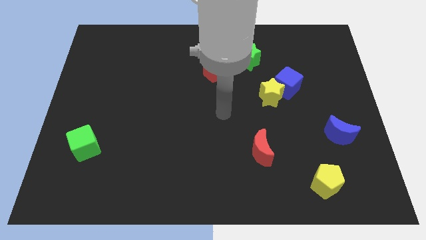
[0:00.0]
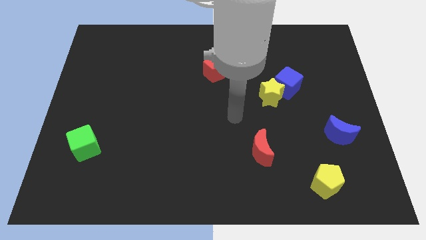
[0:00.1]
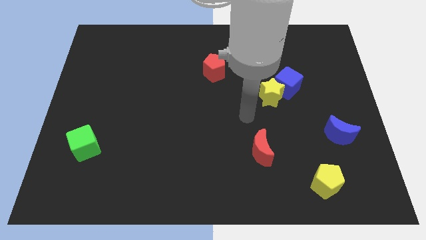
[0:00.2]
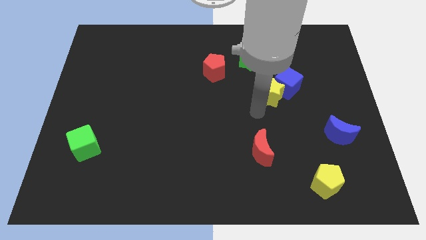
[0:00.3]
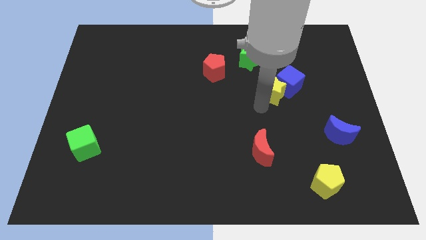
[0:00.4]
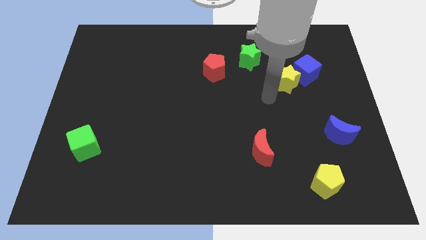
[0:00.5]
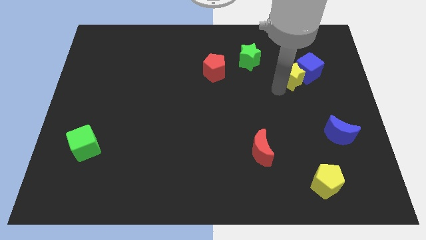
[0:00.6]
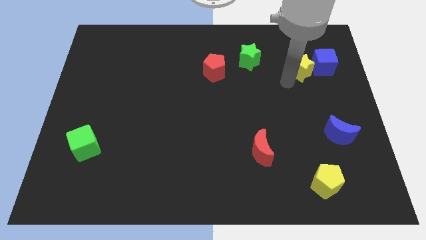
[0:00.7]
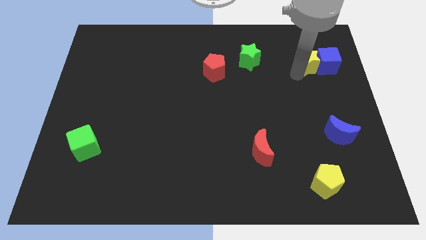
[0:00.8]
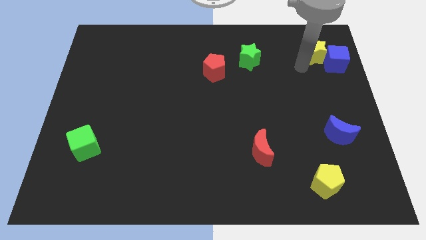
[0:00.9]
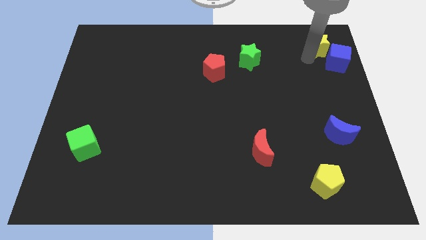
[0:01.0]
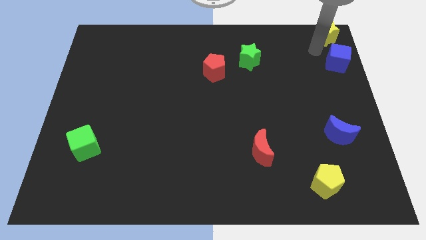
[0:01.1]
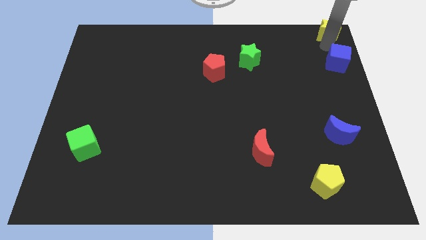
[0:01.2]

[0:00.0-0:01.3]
move the blue cube away from the yellow star

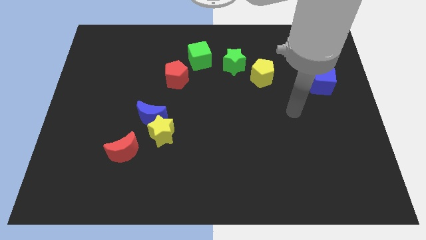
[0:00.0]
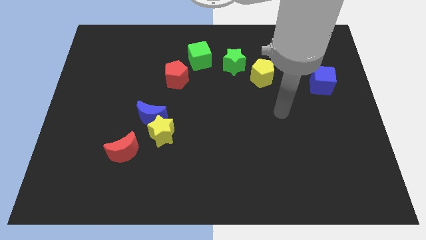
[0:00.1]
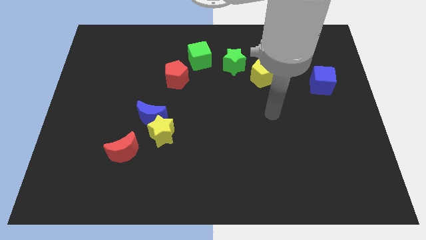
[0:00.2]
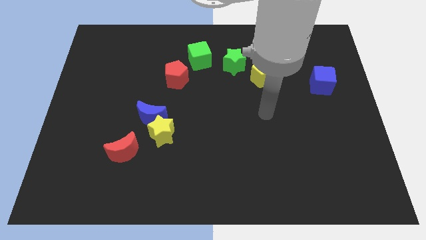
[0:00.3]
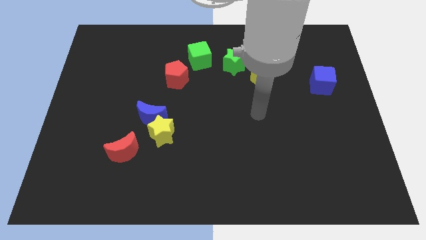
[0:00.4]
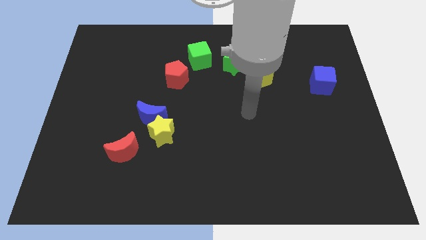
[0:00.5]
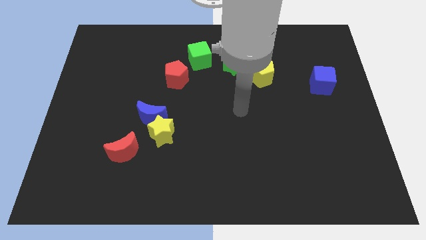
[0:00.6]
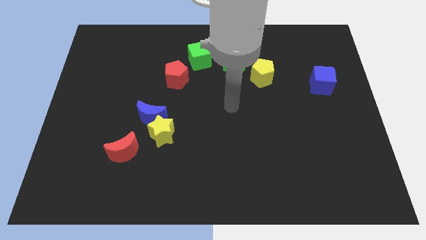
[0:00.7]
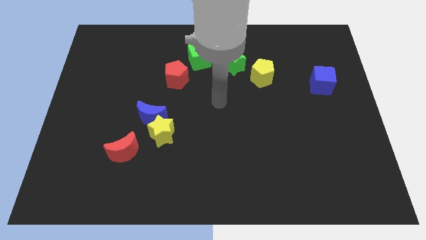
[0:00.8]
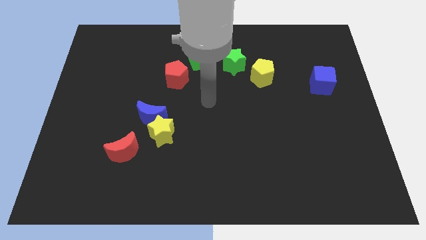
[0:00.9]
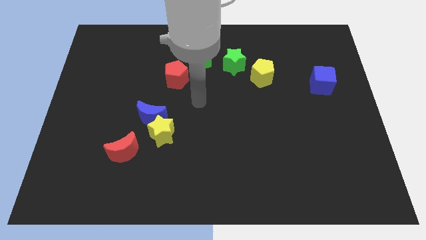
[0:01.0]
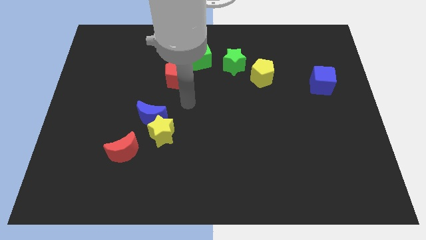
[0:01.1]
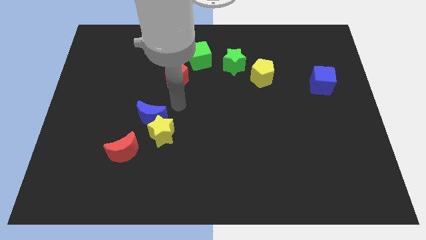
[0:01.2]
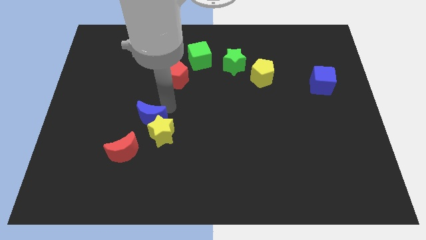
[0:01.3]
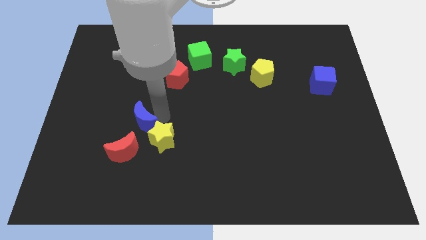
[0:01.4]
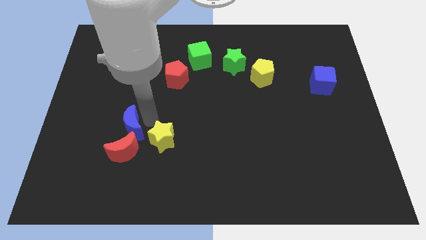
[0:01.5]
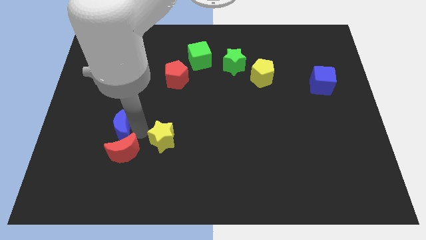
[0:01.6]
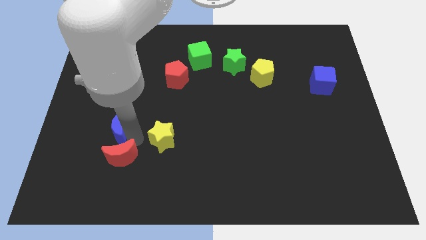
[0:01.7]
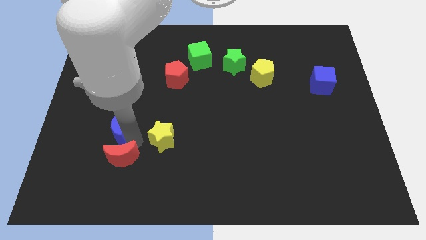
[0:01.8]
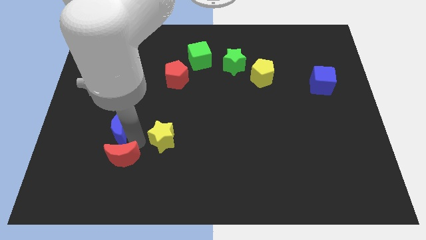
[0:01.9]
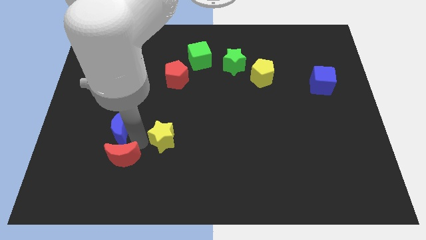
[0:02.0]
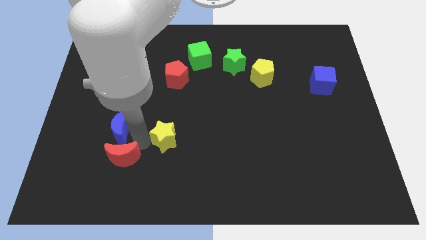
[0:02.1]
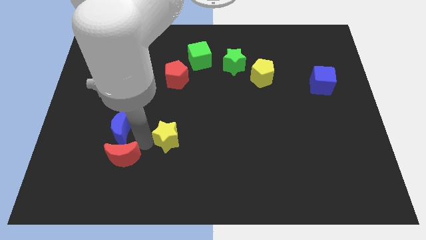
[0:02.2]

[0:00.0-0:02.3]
separate the yellow star from the blue moon and red moon

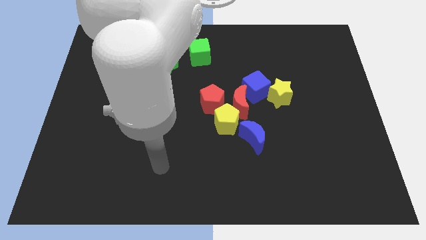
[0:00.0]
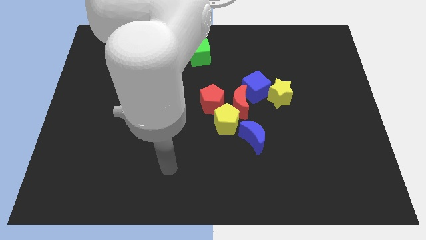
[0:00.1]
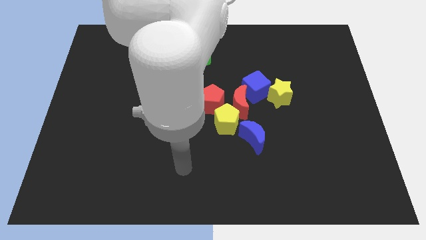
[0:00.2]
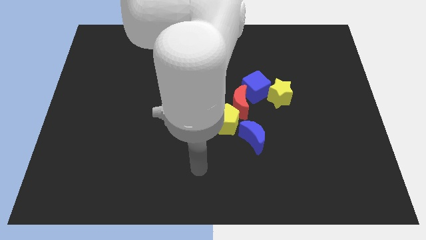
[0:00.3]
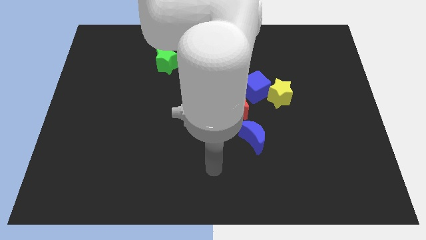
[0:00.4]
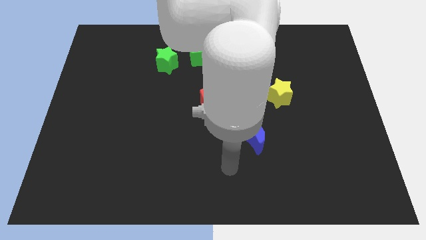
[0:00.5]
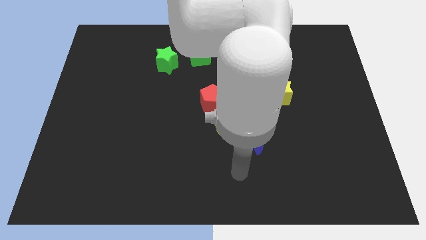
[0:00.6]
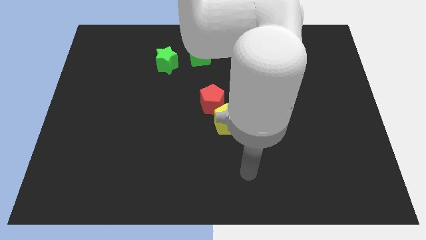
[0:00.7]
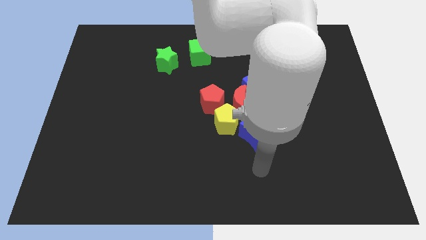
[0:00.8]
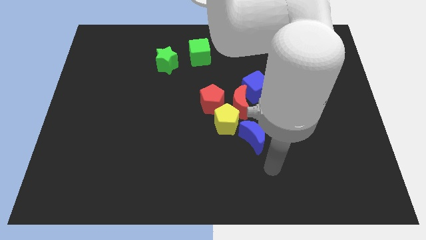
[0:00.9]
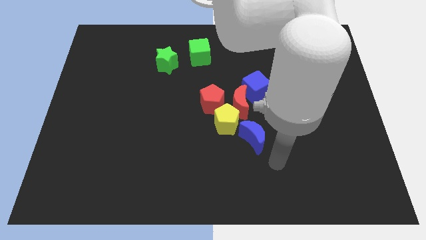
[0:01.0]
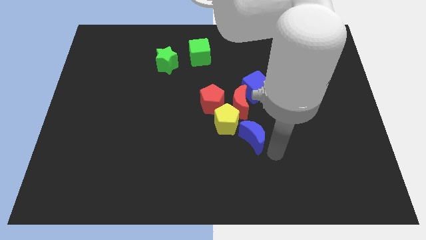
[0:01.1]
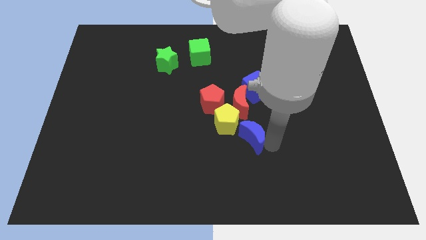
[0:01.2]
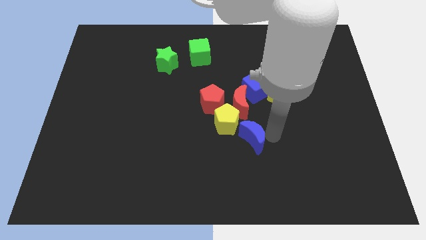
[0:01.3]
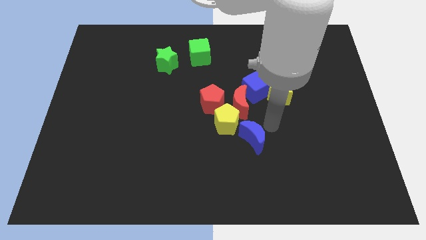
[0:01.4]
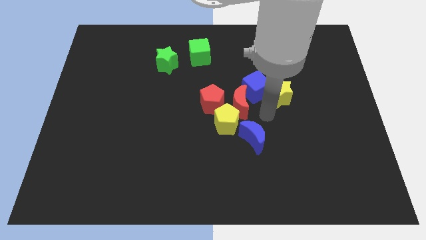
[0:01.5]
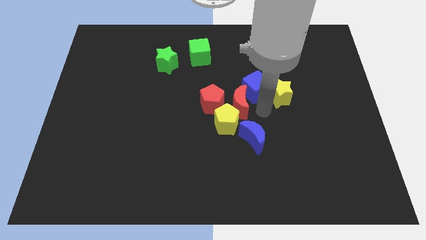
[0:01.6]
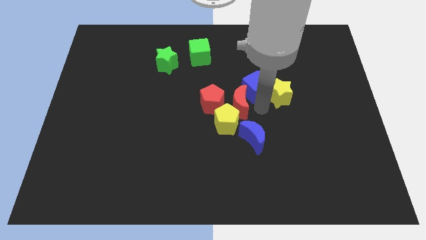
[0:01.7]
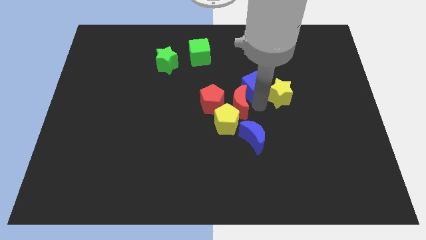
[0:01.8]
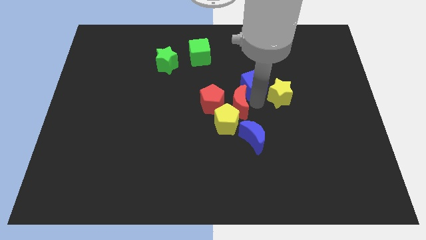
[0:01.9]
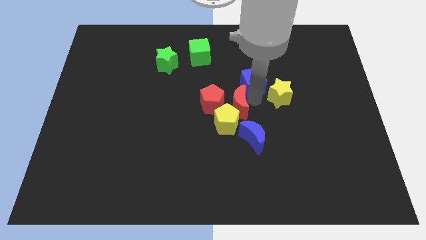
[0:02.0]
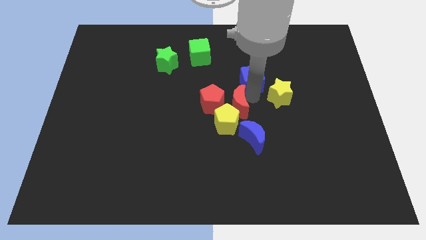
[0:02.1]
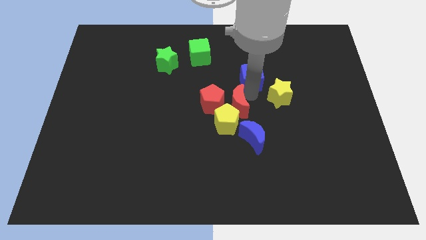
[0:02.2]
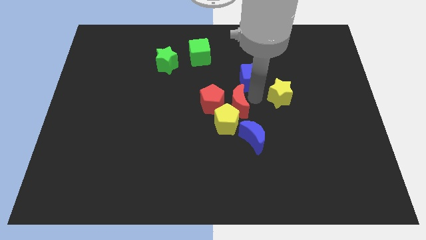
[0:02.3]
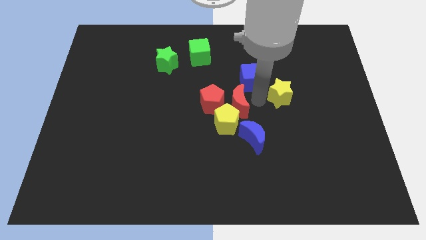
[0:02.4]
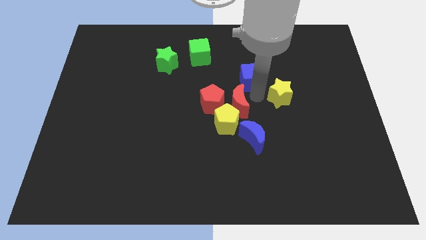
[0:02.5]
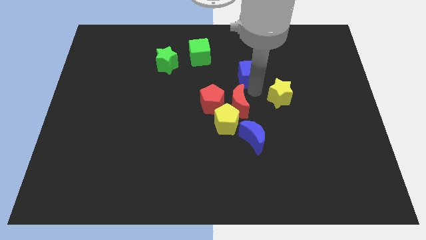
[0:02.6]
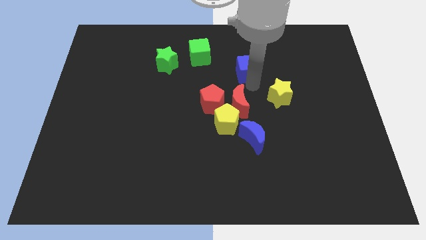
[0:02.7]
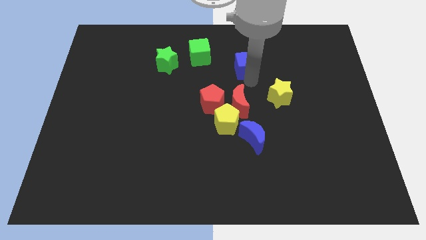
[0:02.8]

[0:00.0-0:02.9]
move the blue cube away from the yellow star and red moon

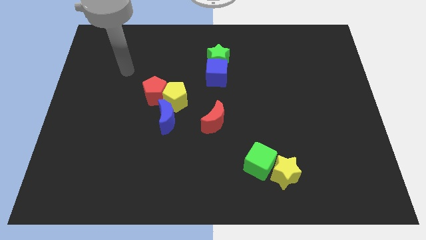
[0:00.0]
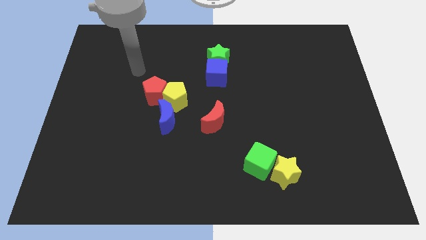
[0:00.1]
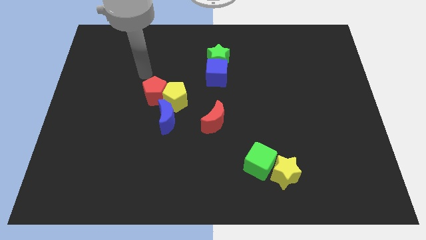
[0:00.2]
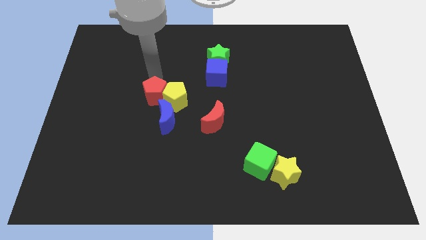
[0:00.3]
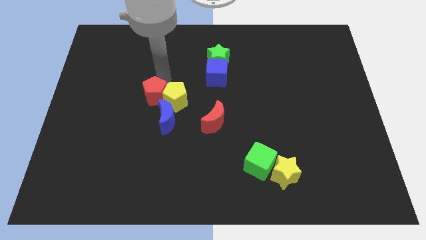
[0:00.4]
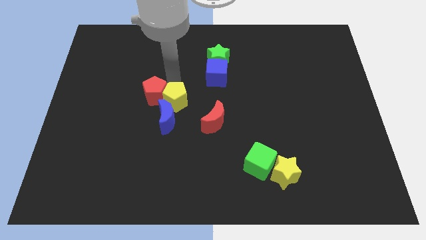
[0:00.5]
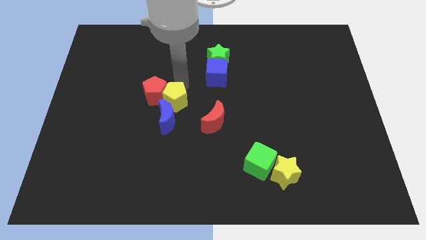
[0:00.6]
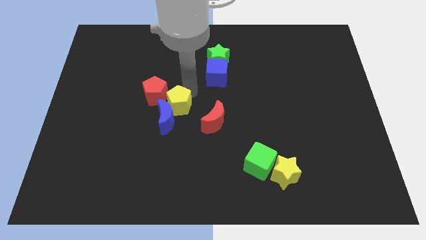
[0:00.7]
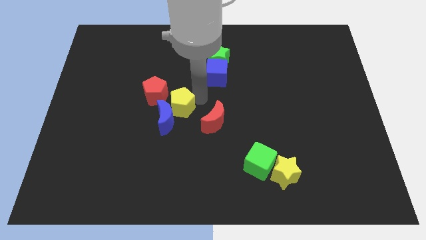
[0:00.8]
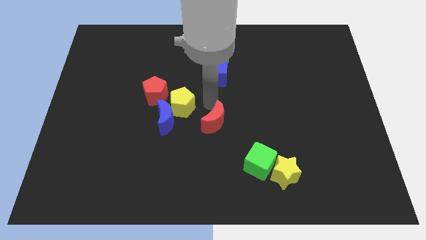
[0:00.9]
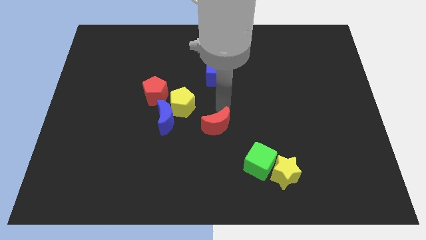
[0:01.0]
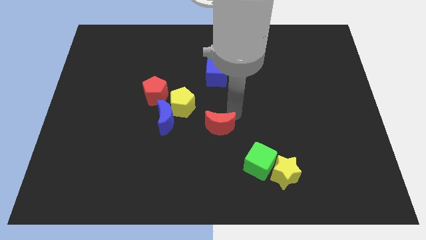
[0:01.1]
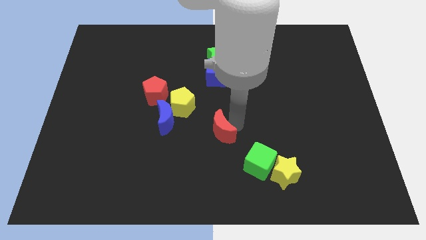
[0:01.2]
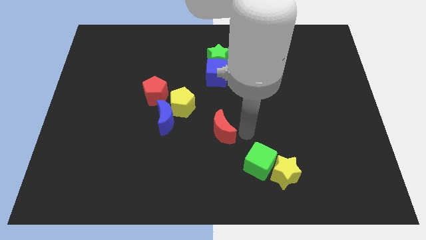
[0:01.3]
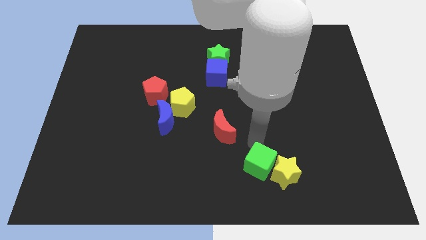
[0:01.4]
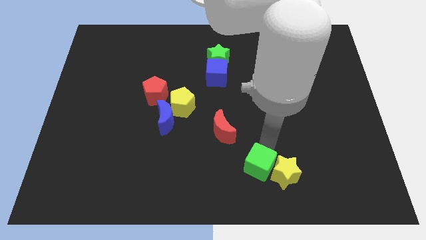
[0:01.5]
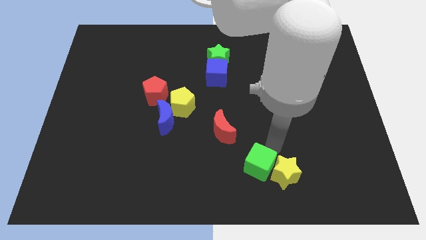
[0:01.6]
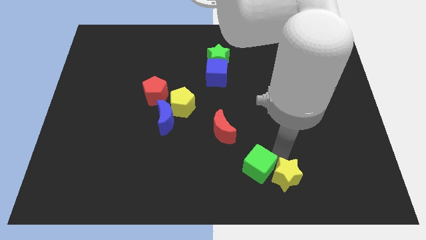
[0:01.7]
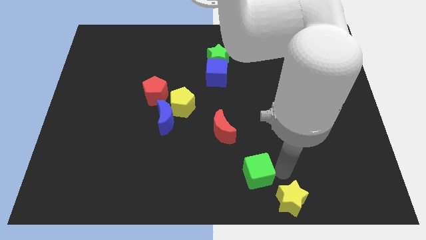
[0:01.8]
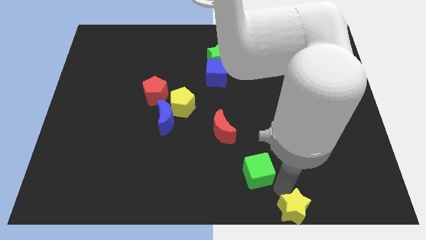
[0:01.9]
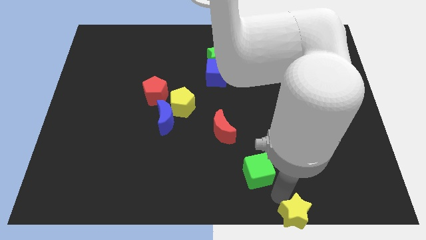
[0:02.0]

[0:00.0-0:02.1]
separate the green cube from the yellow star

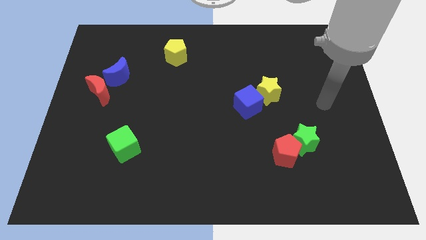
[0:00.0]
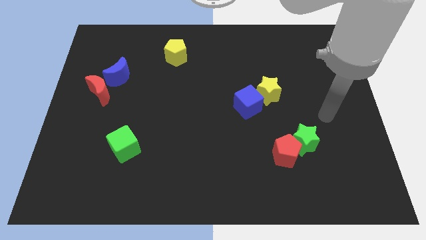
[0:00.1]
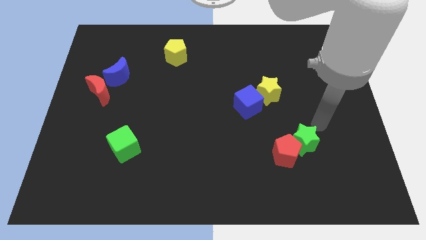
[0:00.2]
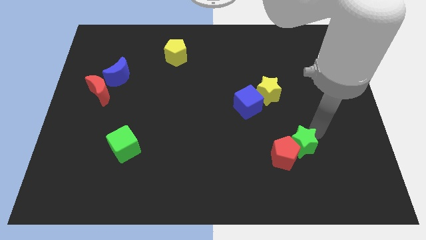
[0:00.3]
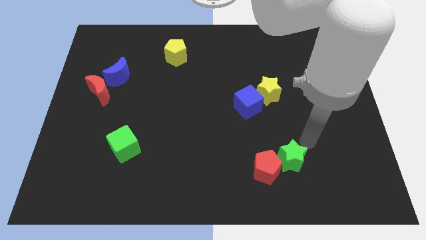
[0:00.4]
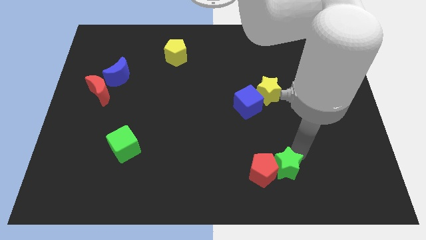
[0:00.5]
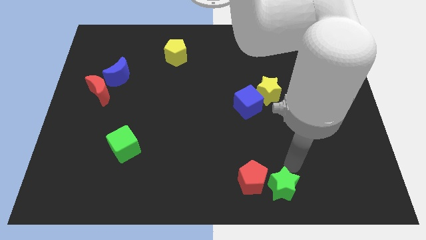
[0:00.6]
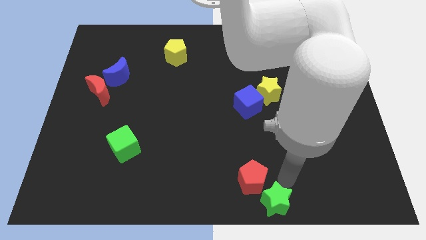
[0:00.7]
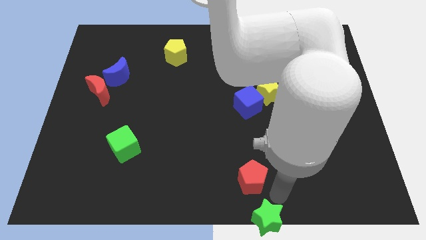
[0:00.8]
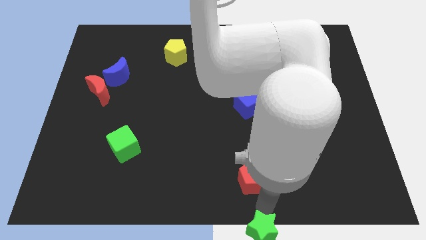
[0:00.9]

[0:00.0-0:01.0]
separate the red pentagon from the green star
